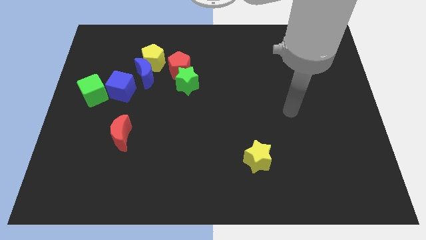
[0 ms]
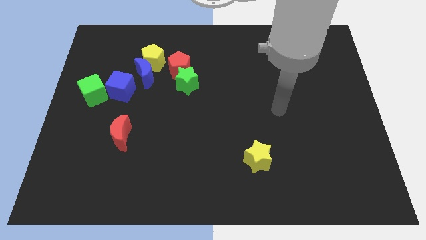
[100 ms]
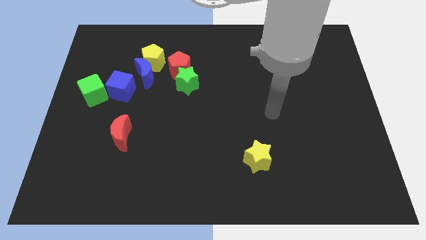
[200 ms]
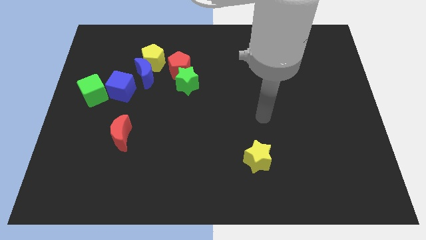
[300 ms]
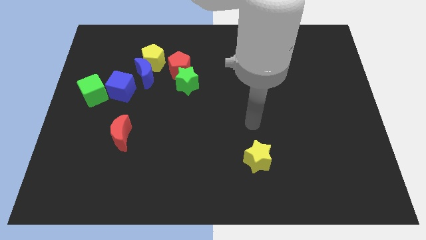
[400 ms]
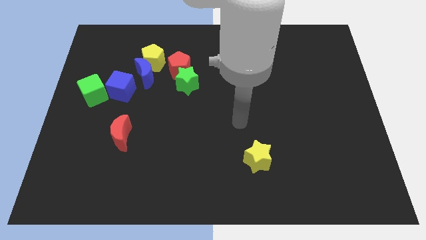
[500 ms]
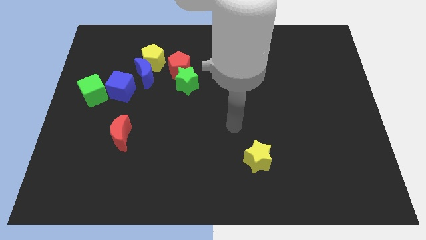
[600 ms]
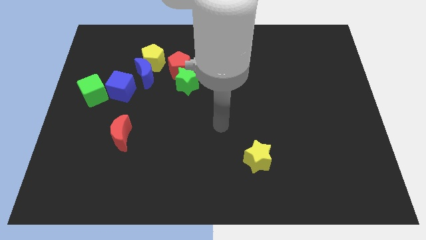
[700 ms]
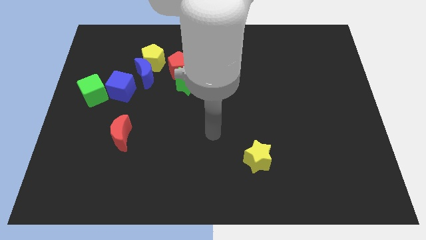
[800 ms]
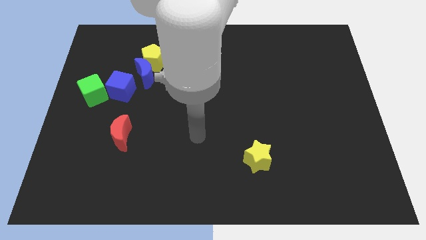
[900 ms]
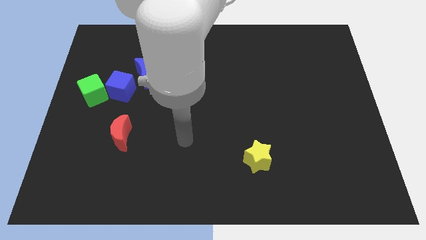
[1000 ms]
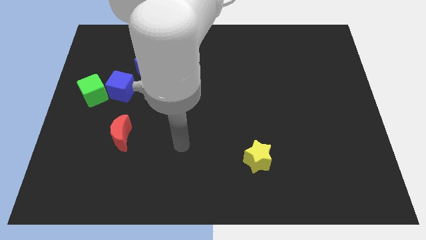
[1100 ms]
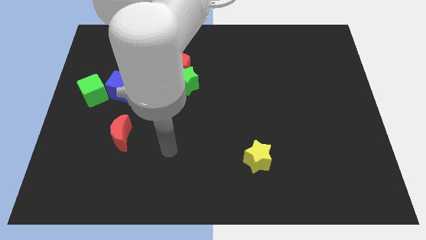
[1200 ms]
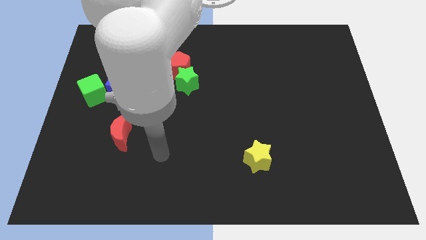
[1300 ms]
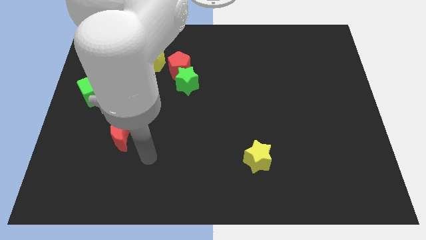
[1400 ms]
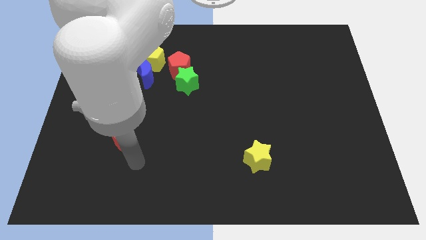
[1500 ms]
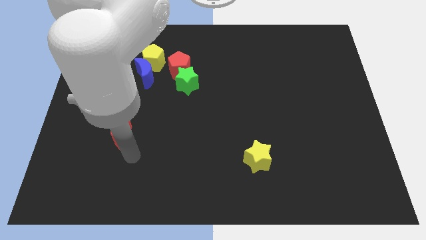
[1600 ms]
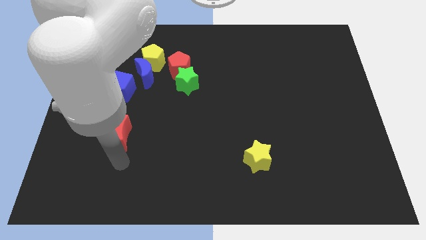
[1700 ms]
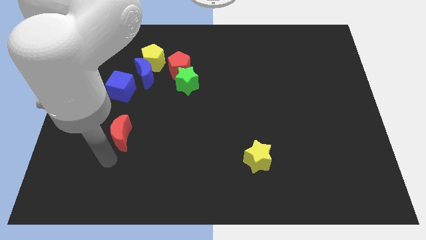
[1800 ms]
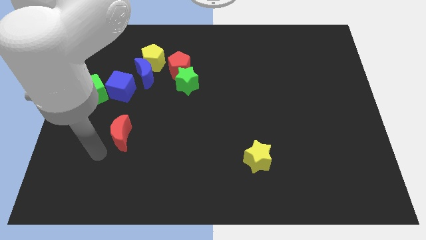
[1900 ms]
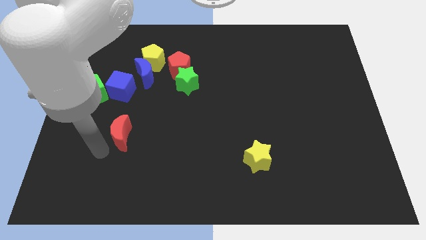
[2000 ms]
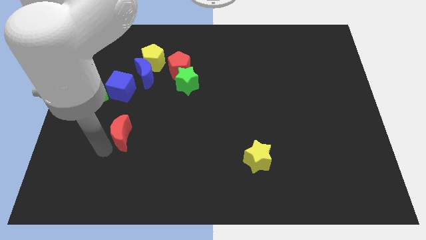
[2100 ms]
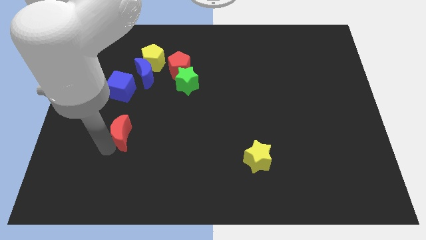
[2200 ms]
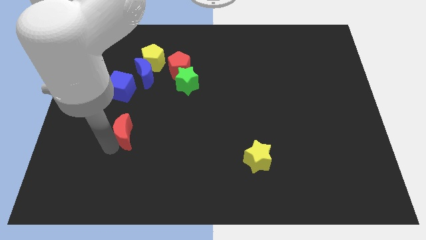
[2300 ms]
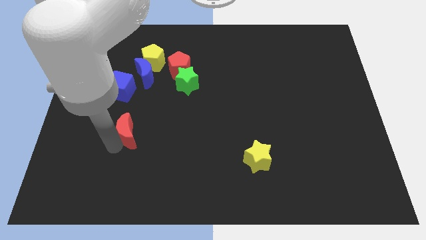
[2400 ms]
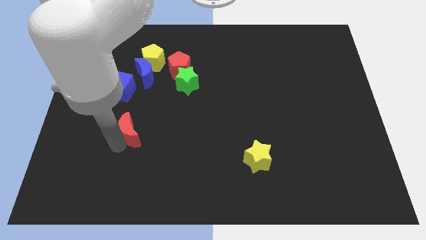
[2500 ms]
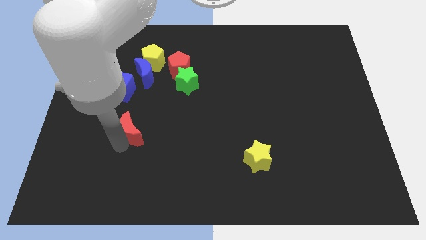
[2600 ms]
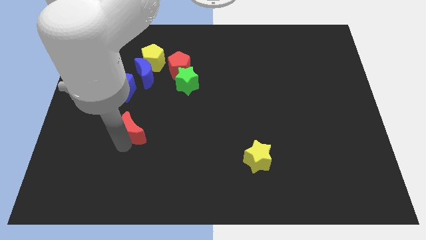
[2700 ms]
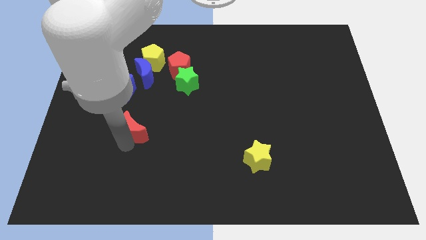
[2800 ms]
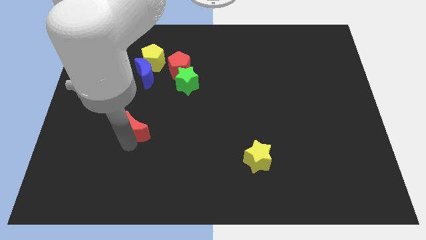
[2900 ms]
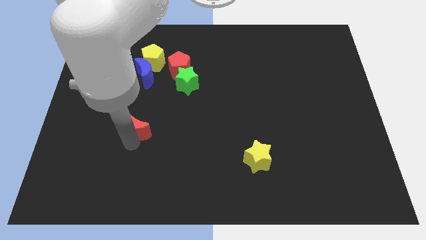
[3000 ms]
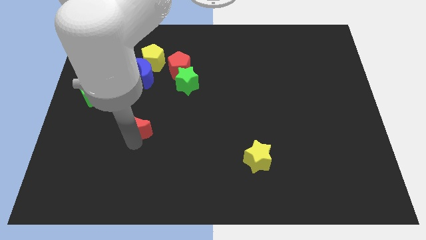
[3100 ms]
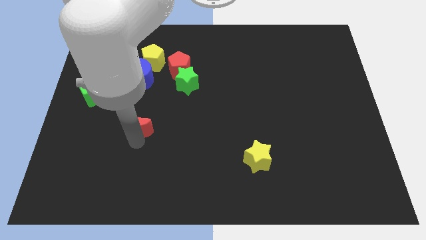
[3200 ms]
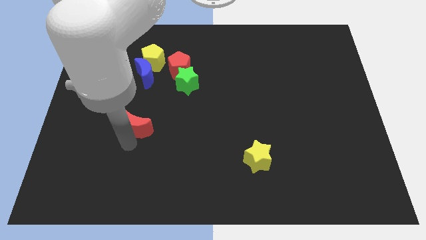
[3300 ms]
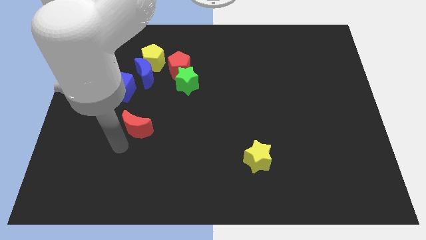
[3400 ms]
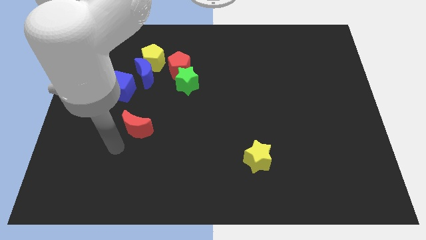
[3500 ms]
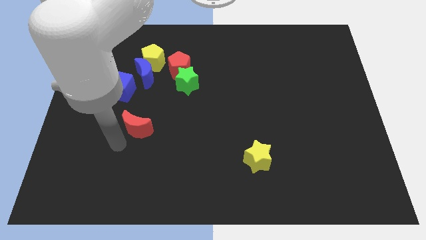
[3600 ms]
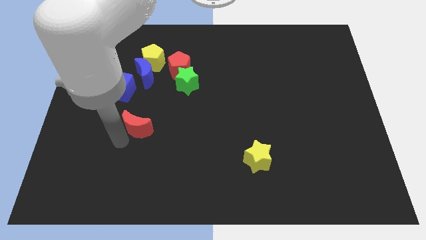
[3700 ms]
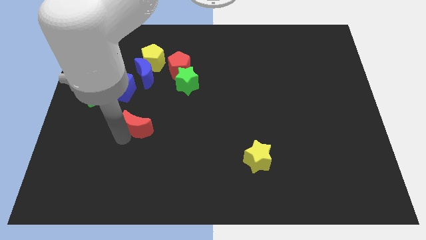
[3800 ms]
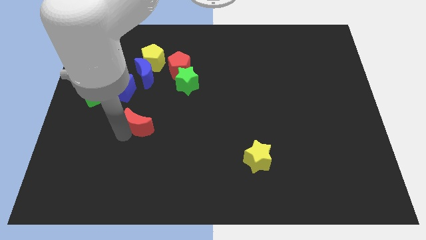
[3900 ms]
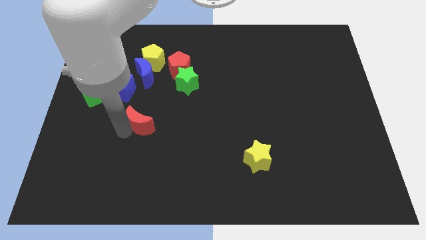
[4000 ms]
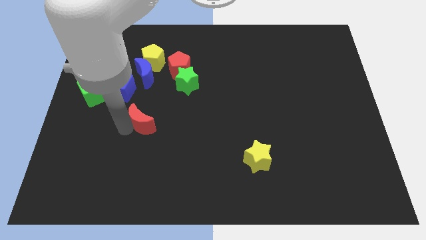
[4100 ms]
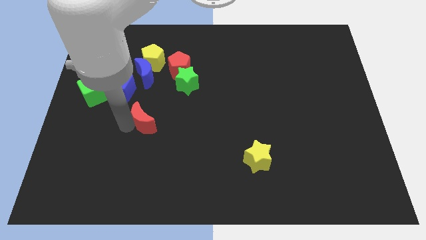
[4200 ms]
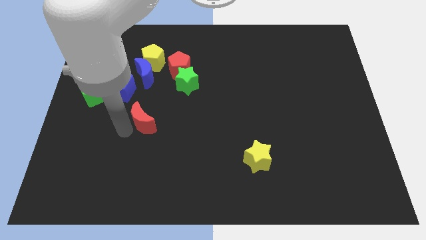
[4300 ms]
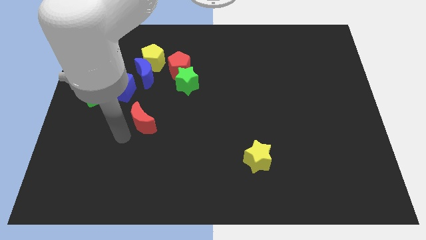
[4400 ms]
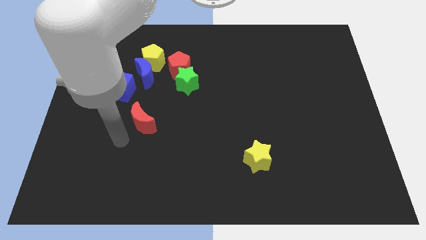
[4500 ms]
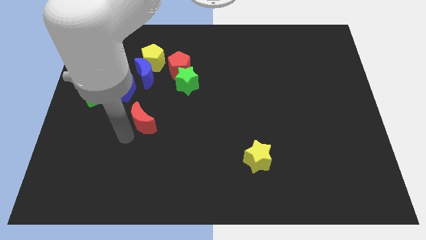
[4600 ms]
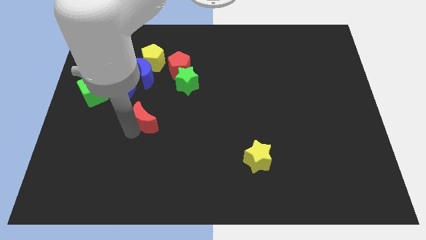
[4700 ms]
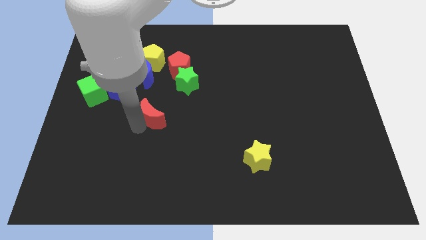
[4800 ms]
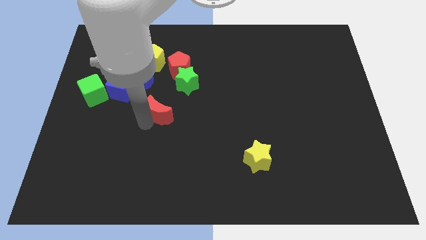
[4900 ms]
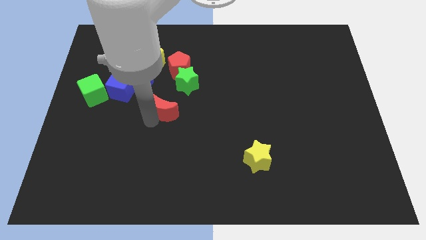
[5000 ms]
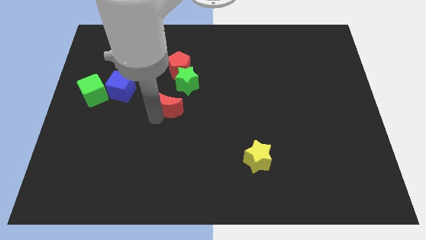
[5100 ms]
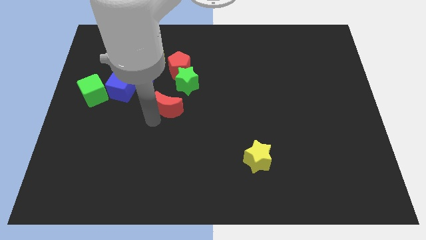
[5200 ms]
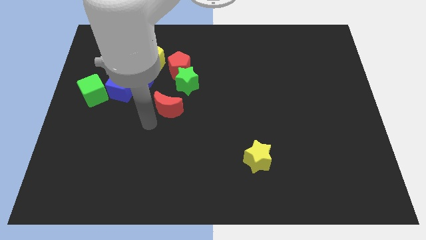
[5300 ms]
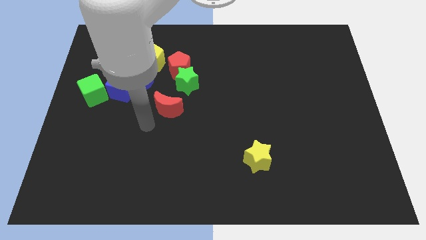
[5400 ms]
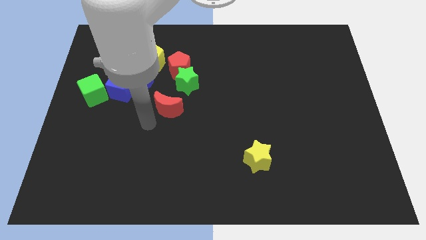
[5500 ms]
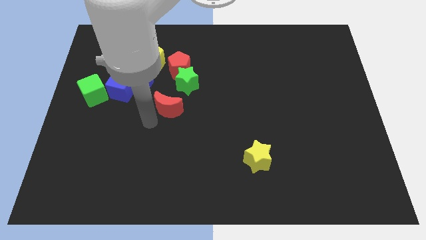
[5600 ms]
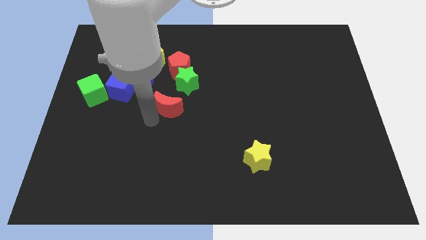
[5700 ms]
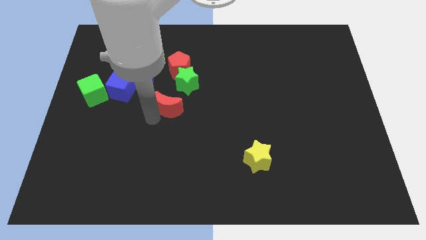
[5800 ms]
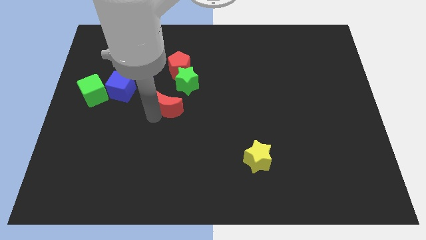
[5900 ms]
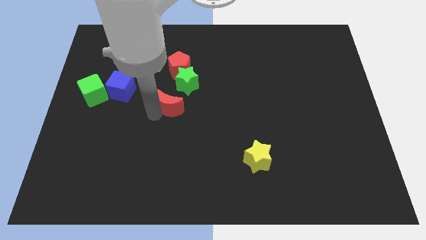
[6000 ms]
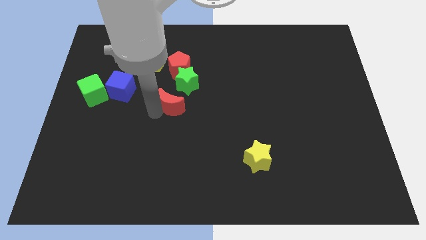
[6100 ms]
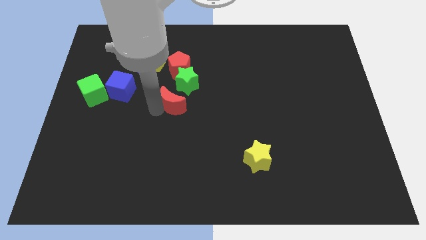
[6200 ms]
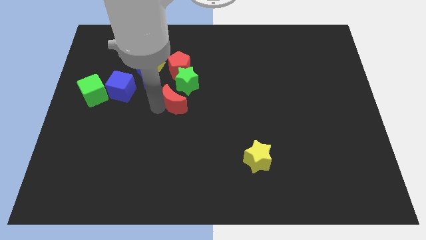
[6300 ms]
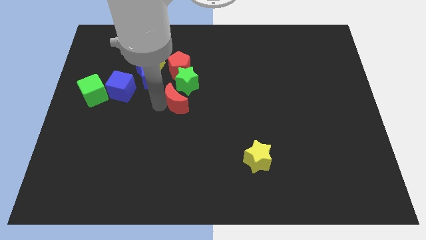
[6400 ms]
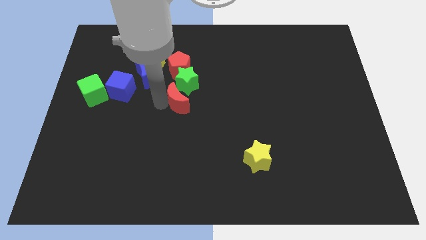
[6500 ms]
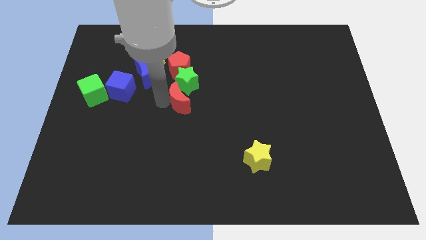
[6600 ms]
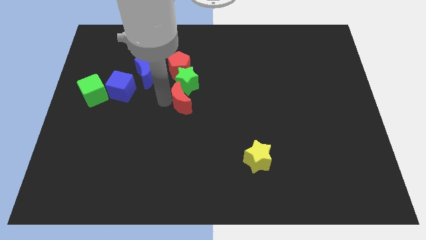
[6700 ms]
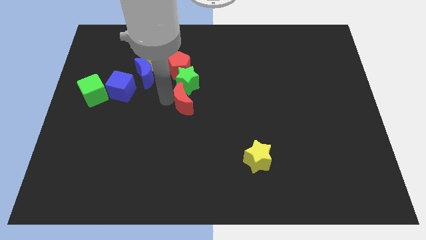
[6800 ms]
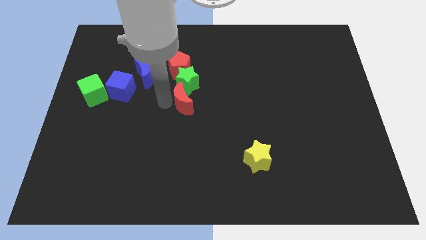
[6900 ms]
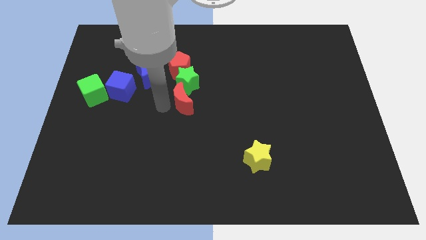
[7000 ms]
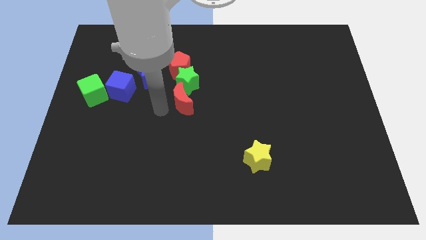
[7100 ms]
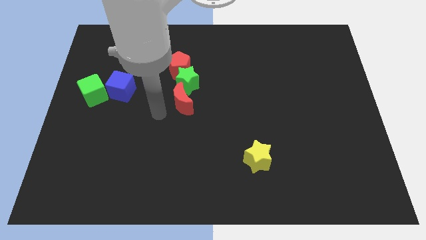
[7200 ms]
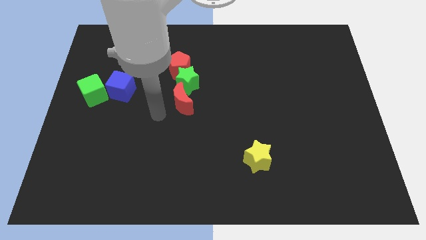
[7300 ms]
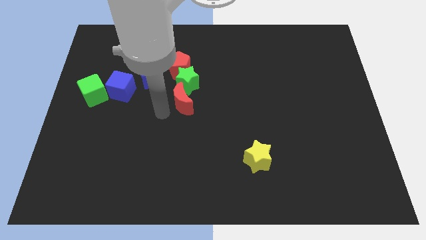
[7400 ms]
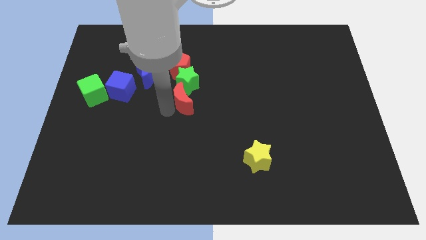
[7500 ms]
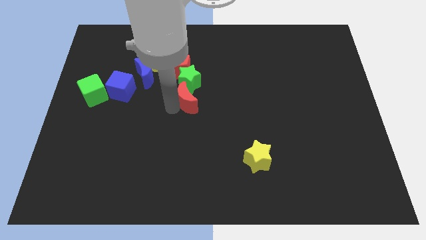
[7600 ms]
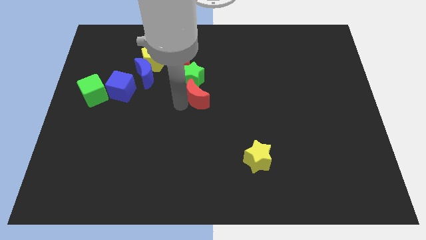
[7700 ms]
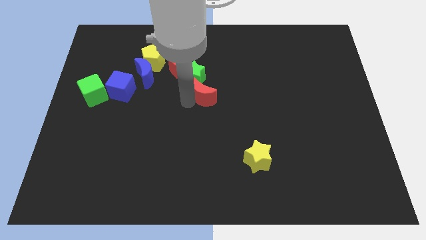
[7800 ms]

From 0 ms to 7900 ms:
move the red moon up and right
